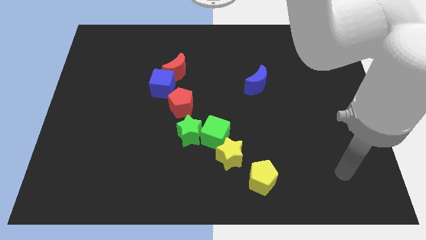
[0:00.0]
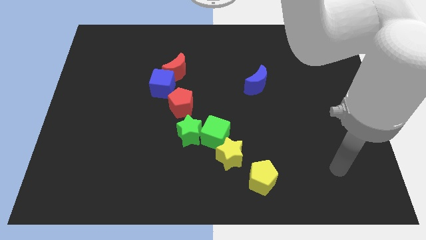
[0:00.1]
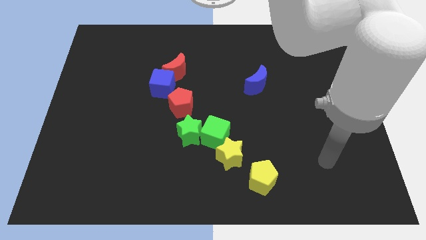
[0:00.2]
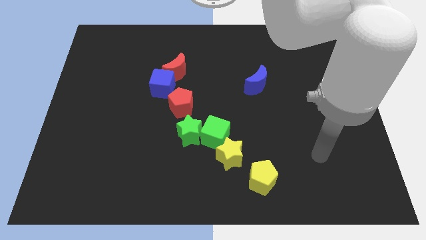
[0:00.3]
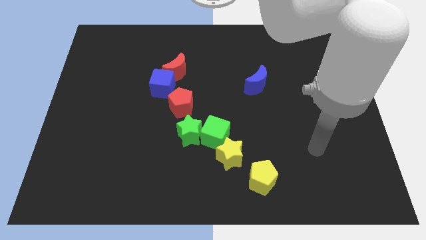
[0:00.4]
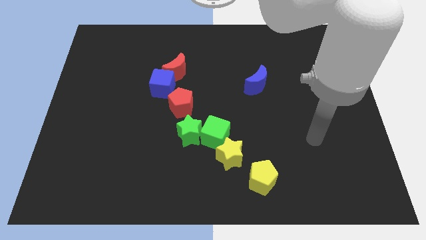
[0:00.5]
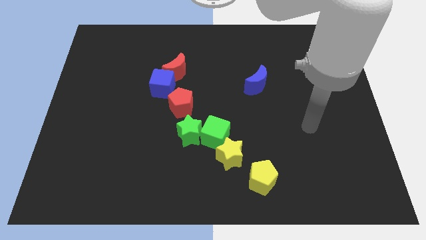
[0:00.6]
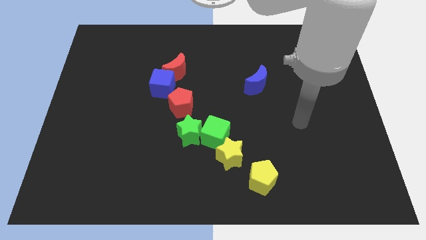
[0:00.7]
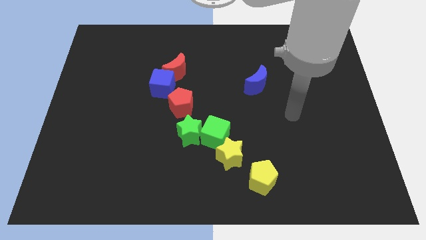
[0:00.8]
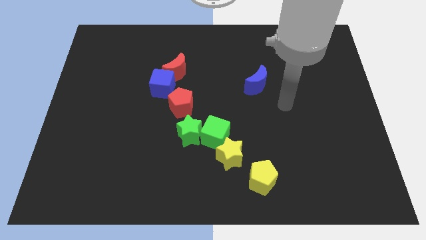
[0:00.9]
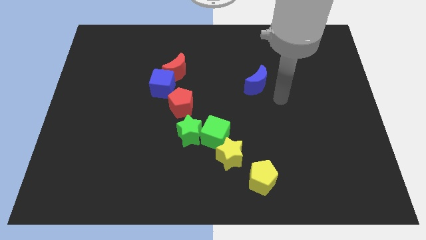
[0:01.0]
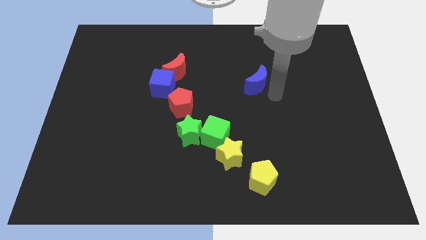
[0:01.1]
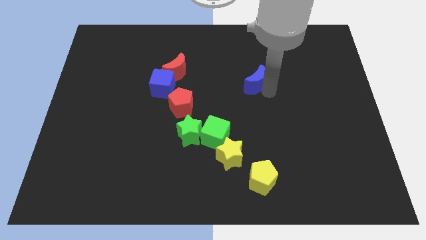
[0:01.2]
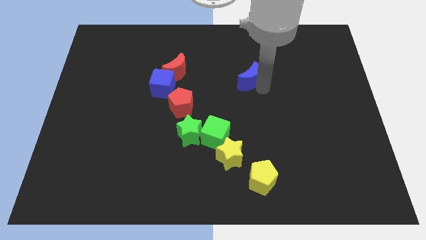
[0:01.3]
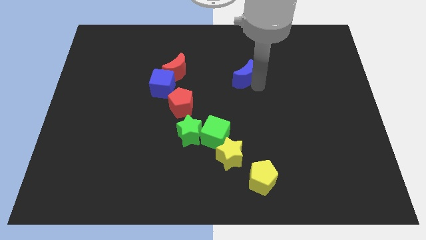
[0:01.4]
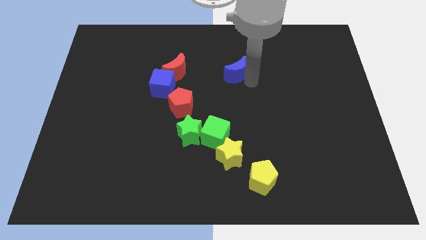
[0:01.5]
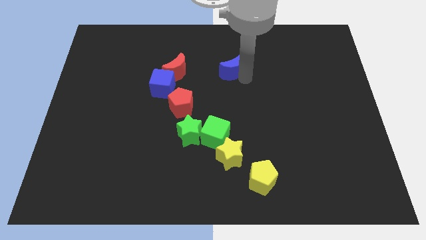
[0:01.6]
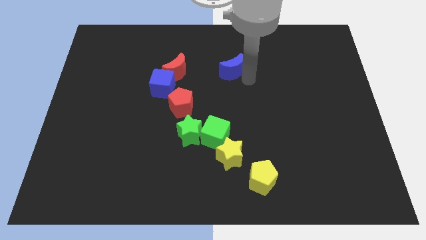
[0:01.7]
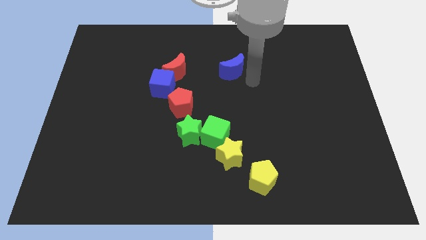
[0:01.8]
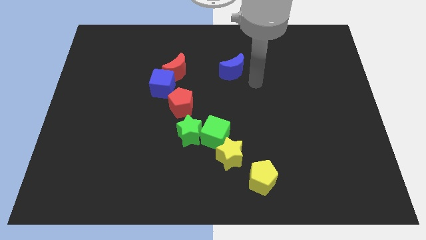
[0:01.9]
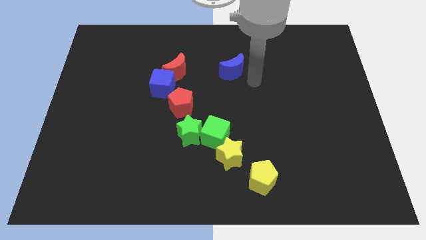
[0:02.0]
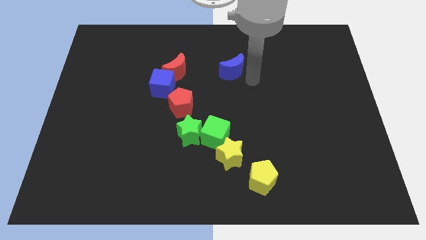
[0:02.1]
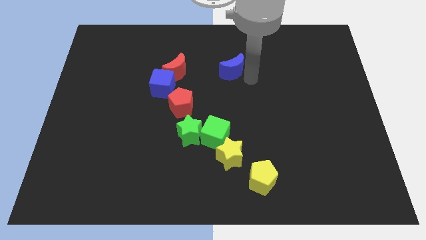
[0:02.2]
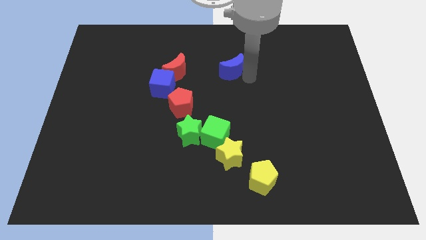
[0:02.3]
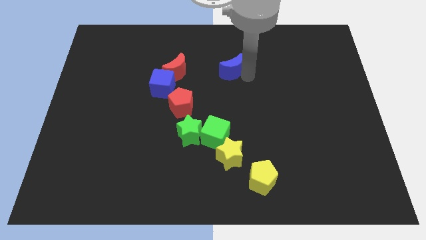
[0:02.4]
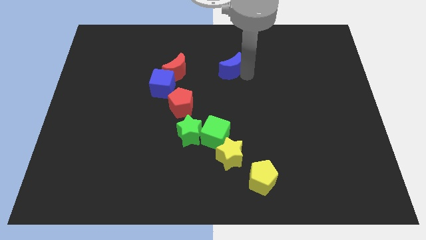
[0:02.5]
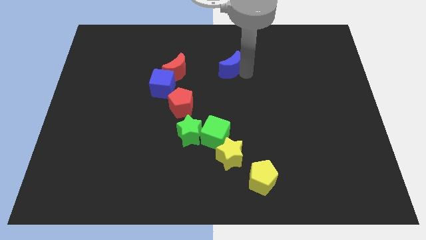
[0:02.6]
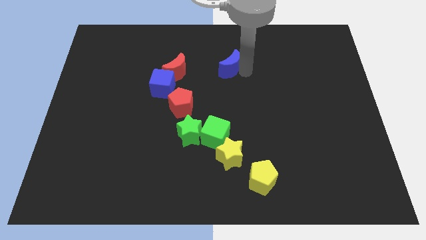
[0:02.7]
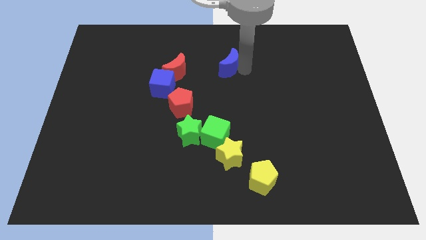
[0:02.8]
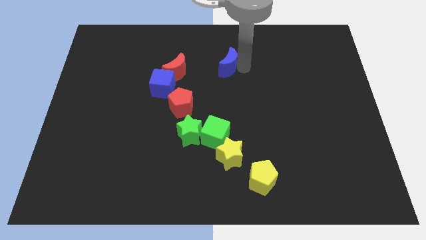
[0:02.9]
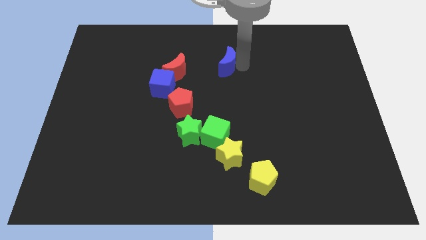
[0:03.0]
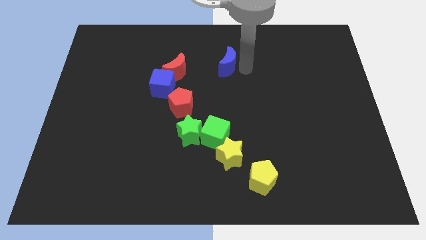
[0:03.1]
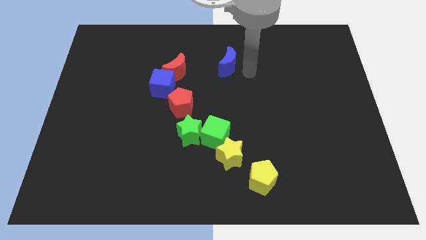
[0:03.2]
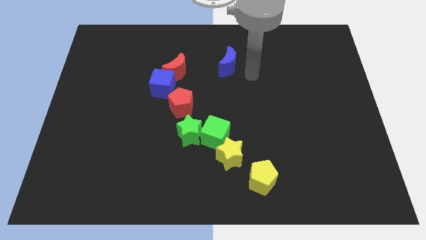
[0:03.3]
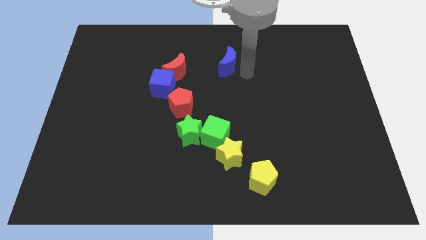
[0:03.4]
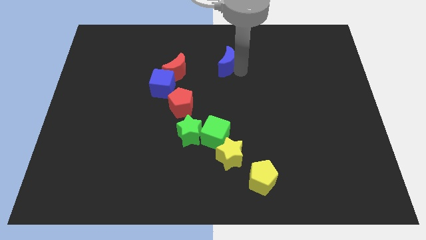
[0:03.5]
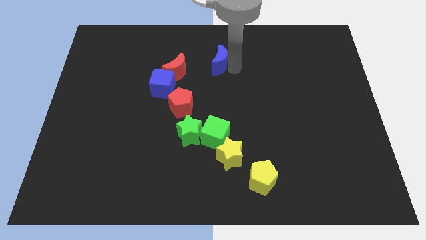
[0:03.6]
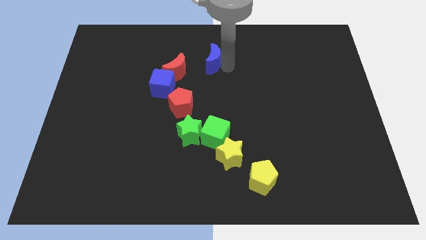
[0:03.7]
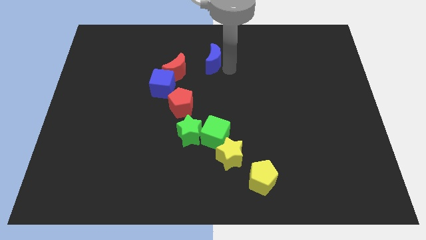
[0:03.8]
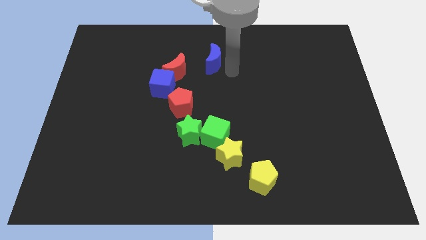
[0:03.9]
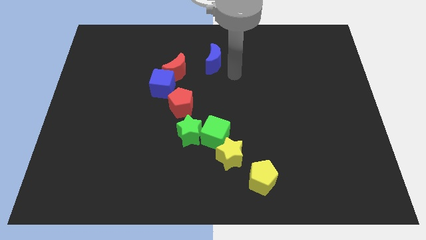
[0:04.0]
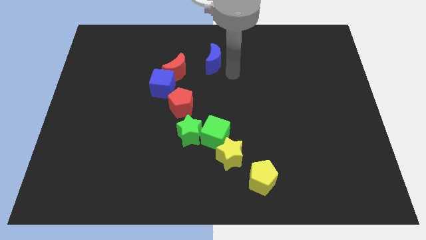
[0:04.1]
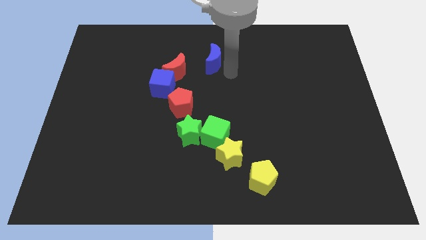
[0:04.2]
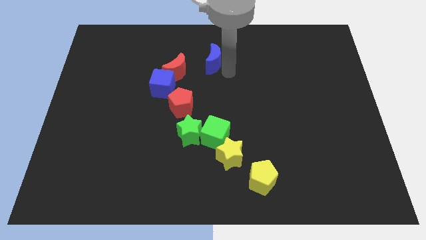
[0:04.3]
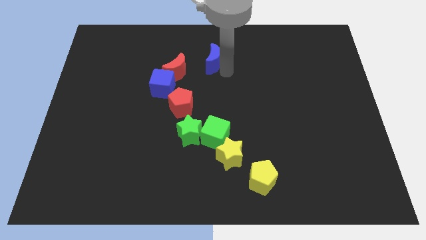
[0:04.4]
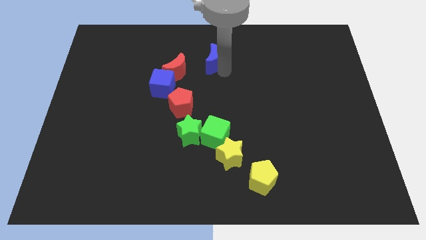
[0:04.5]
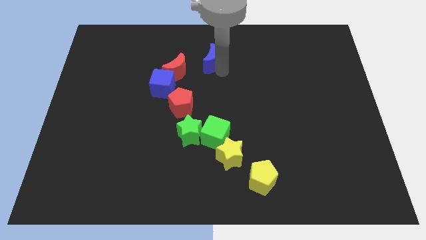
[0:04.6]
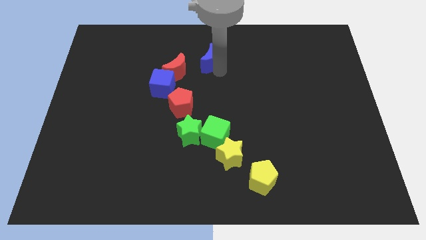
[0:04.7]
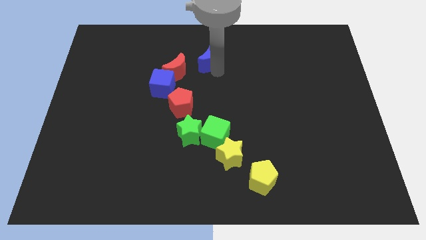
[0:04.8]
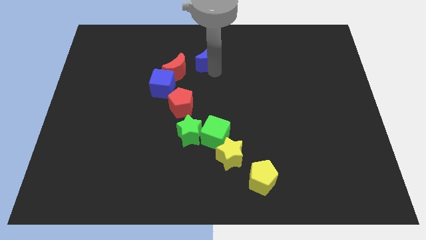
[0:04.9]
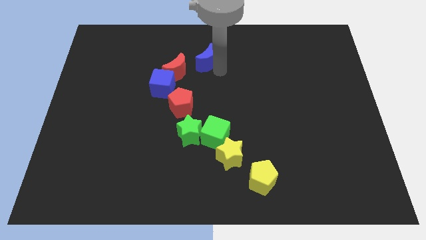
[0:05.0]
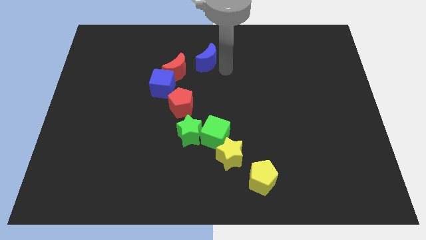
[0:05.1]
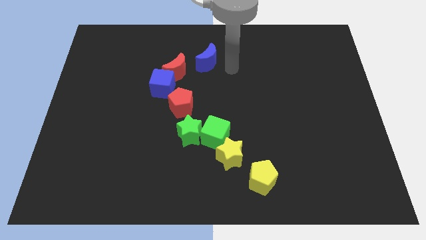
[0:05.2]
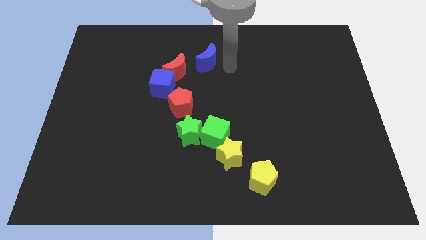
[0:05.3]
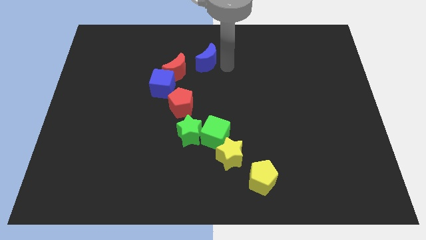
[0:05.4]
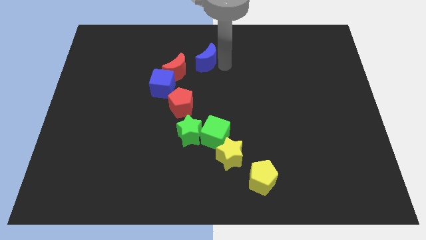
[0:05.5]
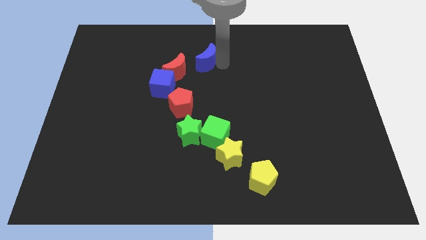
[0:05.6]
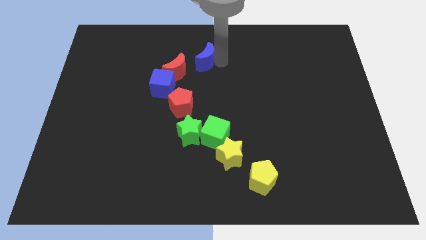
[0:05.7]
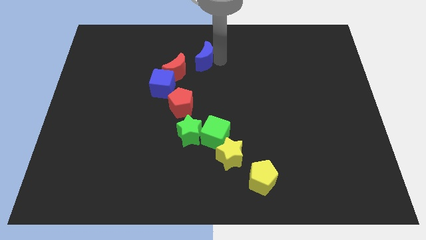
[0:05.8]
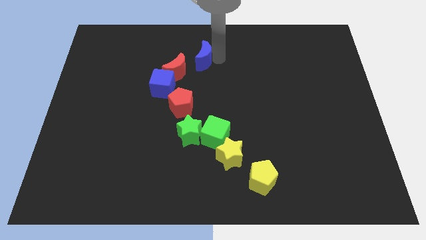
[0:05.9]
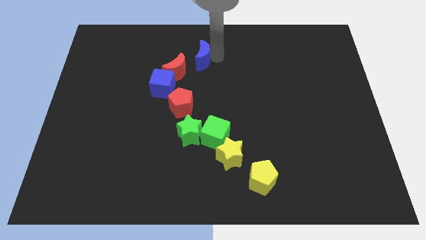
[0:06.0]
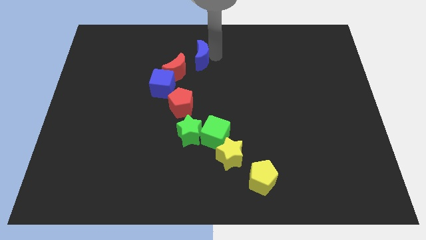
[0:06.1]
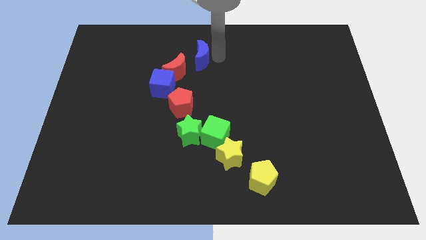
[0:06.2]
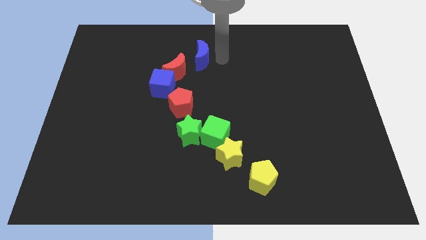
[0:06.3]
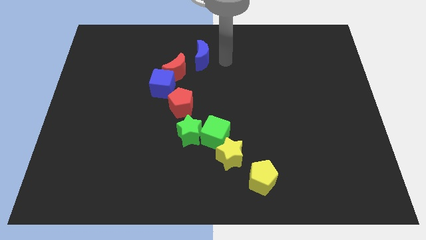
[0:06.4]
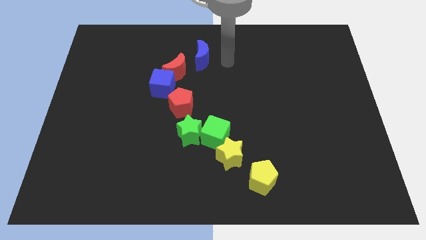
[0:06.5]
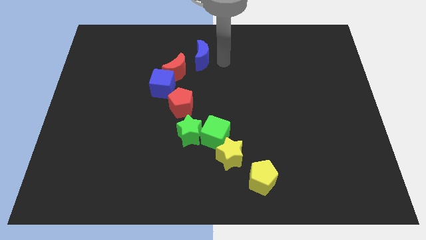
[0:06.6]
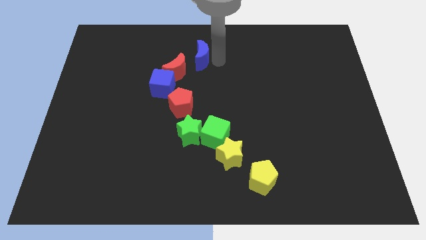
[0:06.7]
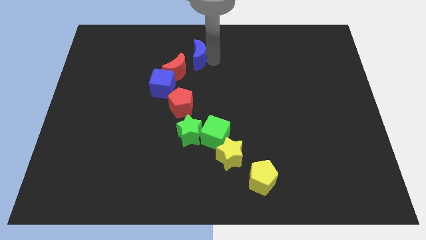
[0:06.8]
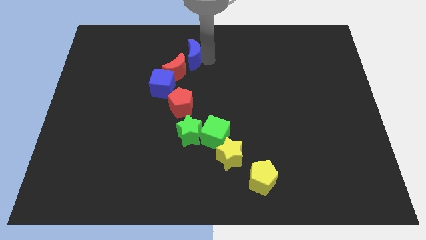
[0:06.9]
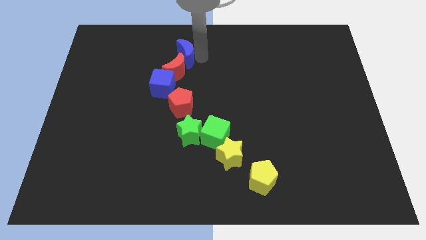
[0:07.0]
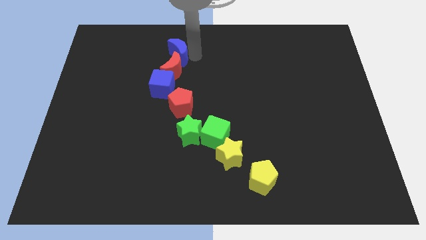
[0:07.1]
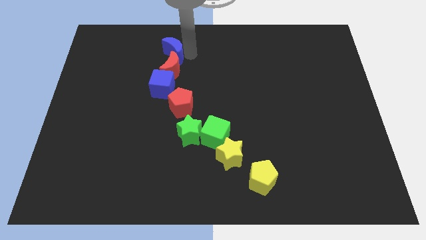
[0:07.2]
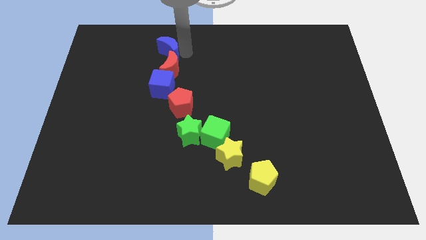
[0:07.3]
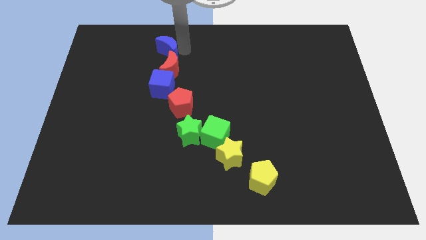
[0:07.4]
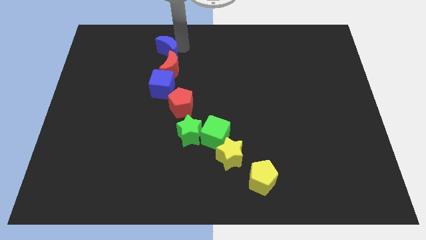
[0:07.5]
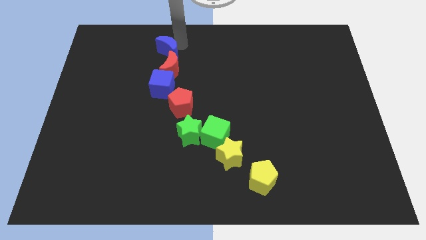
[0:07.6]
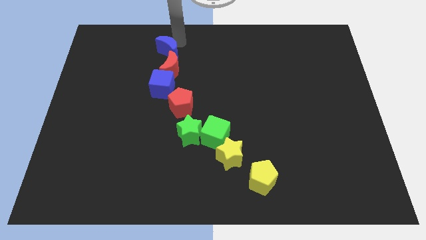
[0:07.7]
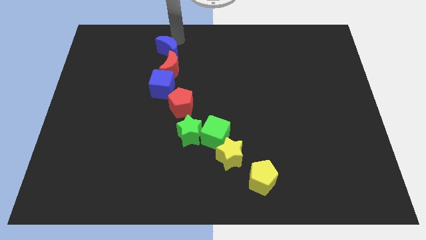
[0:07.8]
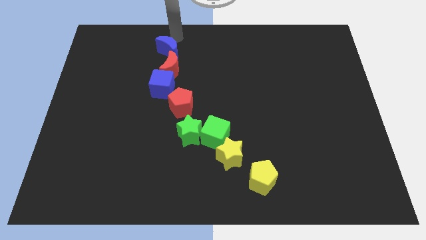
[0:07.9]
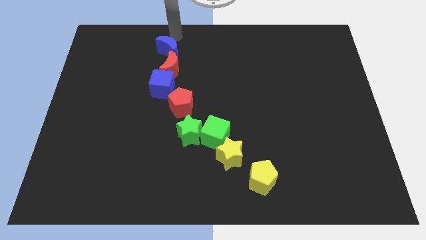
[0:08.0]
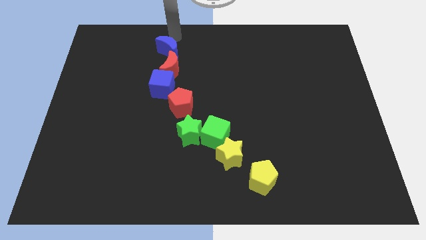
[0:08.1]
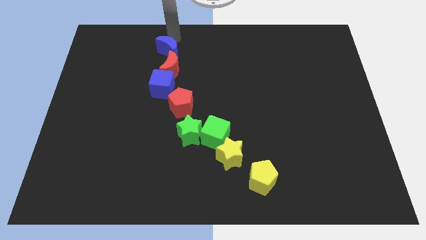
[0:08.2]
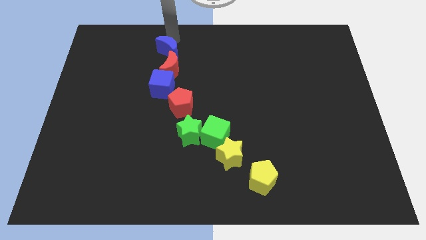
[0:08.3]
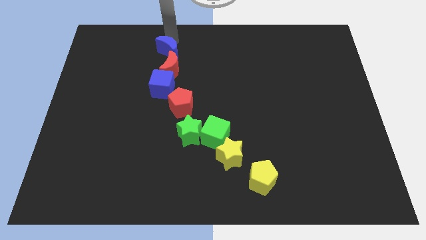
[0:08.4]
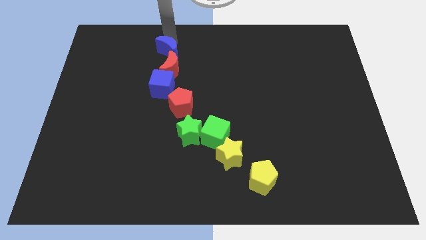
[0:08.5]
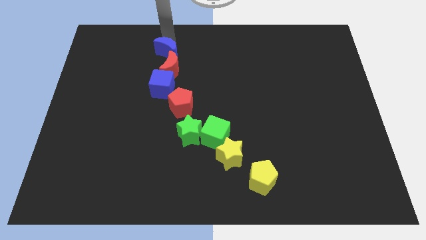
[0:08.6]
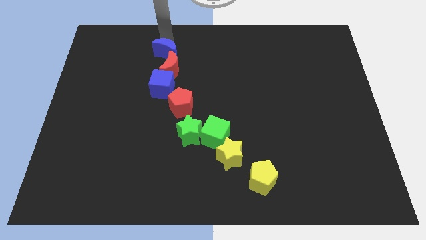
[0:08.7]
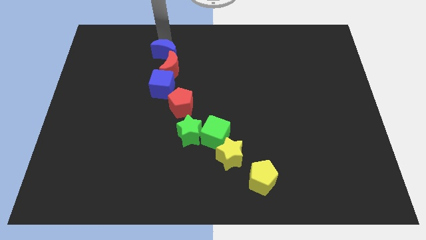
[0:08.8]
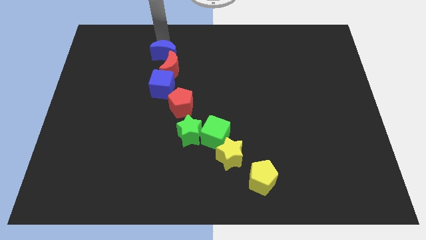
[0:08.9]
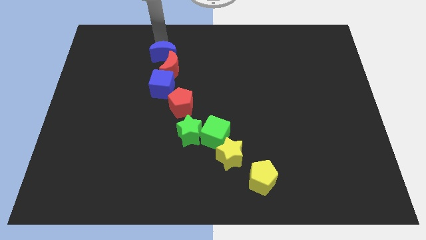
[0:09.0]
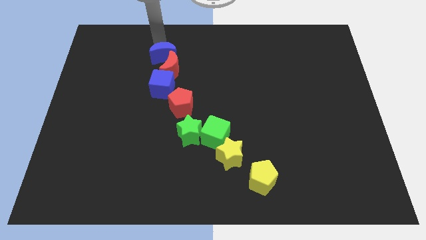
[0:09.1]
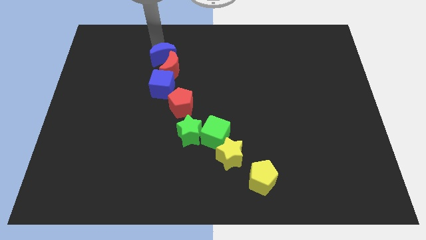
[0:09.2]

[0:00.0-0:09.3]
move the blue moon to the left
